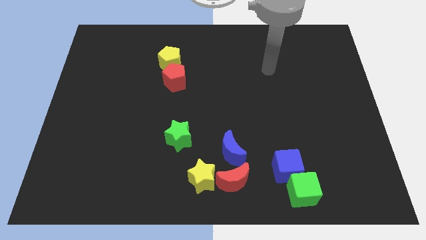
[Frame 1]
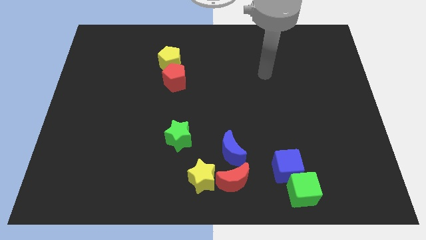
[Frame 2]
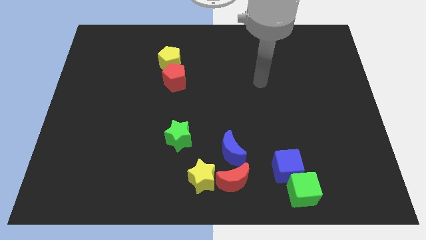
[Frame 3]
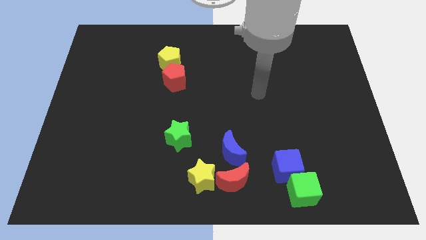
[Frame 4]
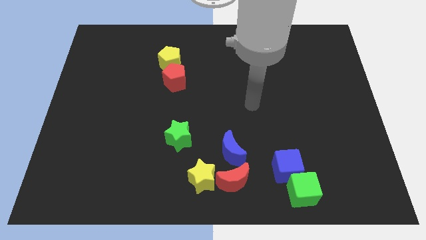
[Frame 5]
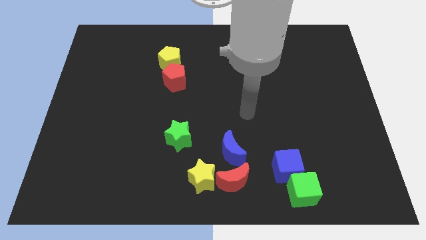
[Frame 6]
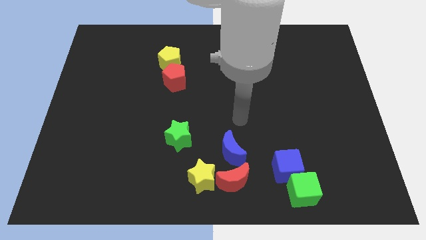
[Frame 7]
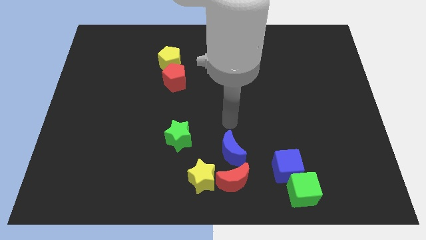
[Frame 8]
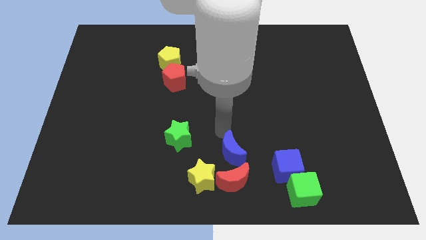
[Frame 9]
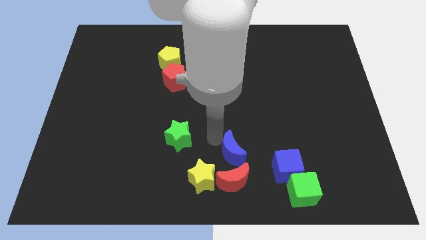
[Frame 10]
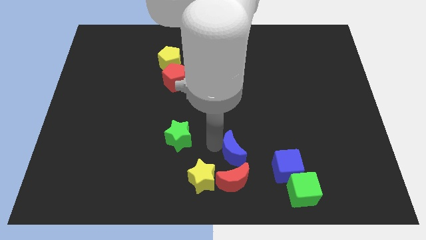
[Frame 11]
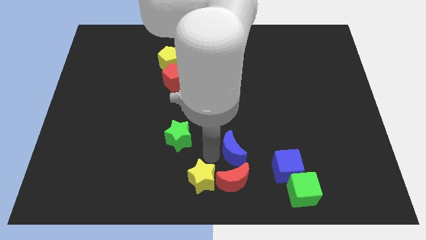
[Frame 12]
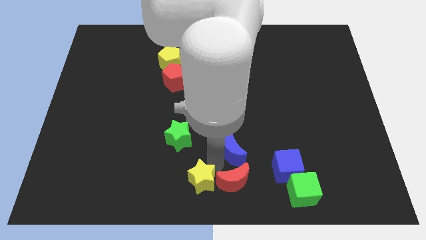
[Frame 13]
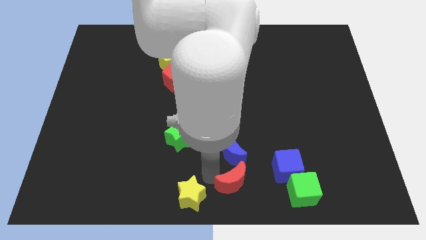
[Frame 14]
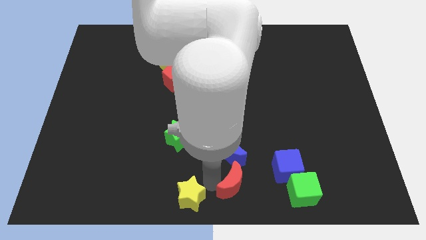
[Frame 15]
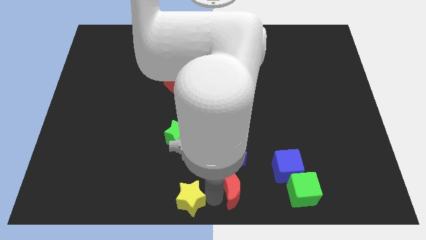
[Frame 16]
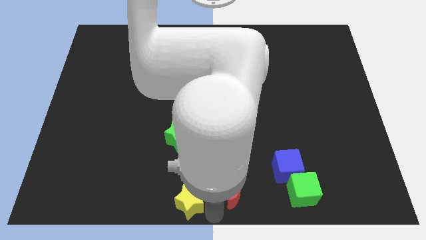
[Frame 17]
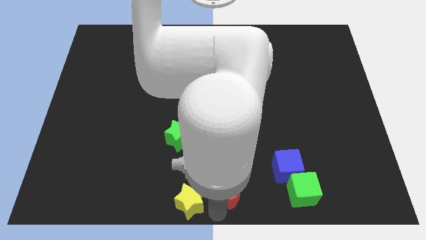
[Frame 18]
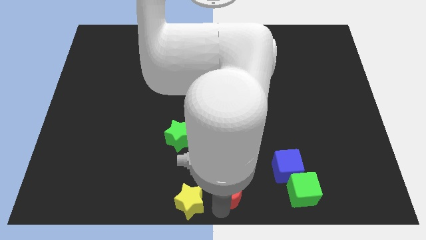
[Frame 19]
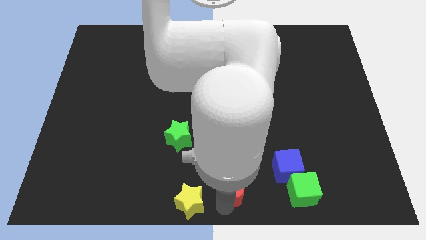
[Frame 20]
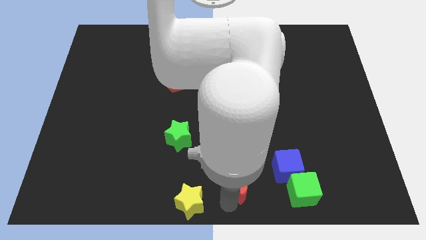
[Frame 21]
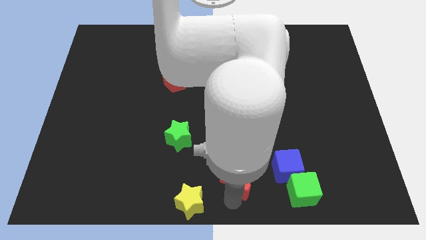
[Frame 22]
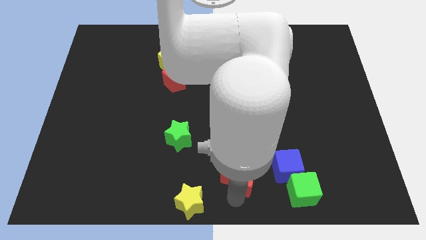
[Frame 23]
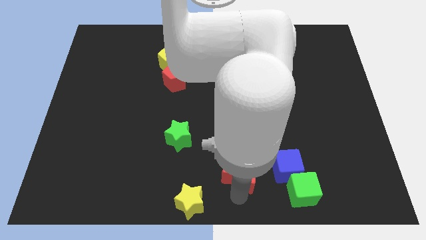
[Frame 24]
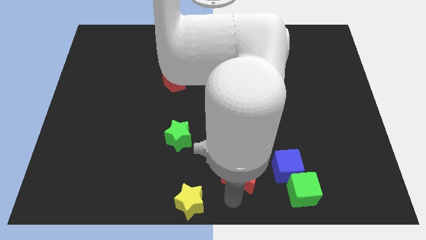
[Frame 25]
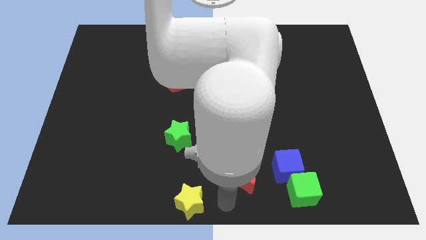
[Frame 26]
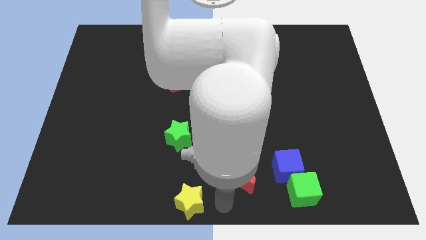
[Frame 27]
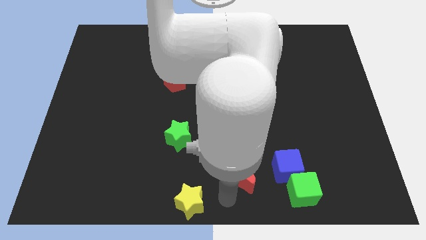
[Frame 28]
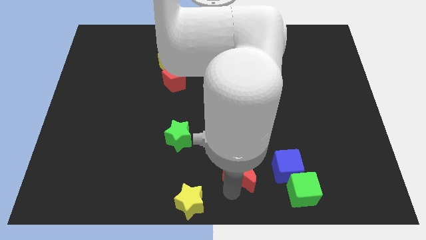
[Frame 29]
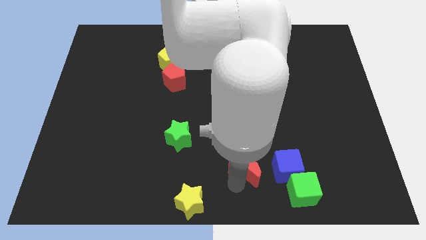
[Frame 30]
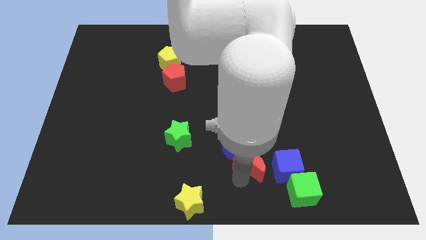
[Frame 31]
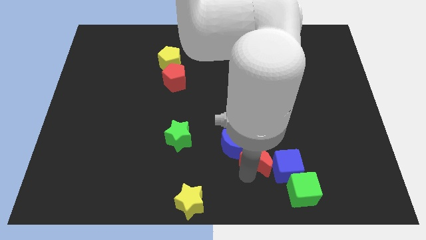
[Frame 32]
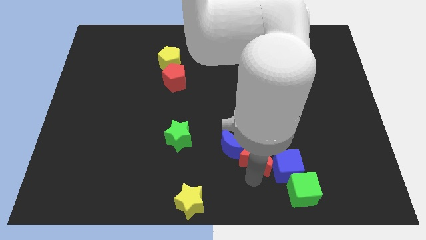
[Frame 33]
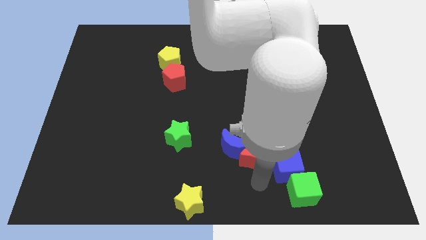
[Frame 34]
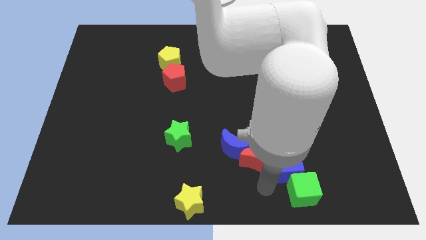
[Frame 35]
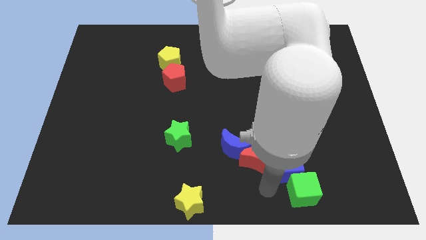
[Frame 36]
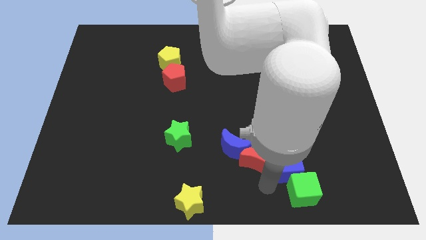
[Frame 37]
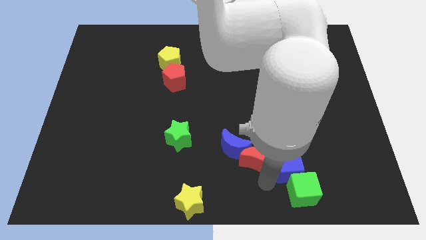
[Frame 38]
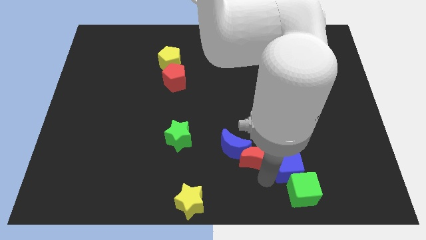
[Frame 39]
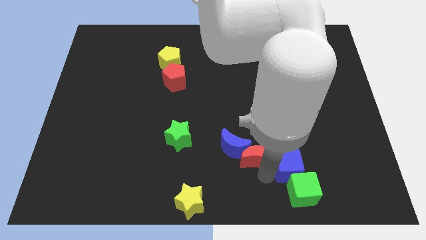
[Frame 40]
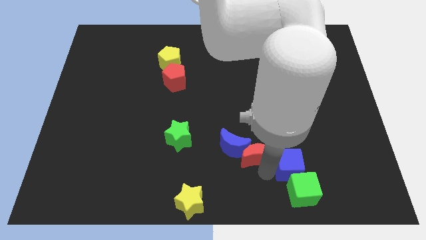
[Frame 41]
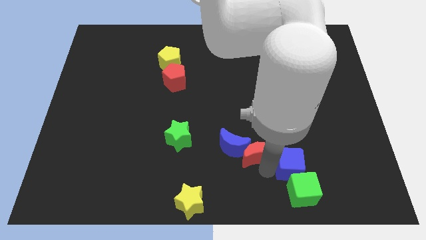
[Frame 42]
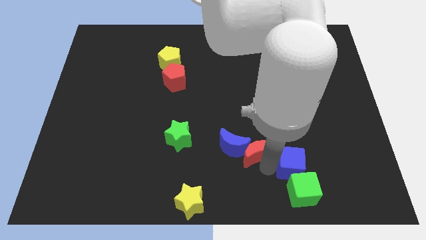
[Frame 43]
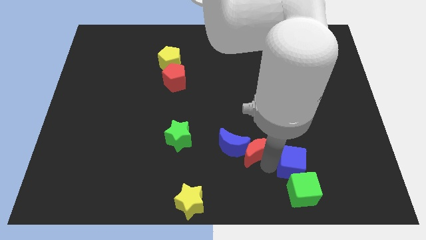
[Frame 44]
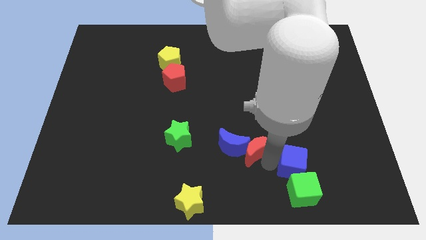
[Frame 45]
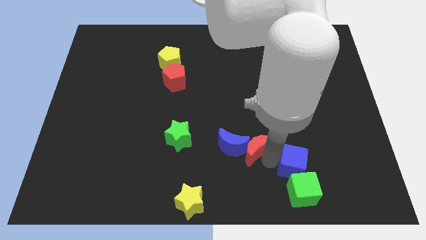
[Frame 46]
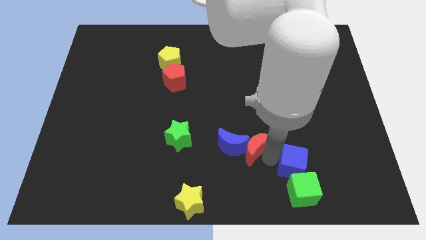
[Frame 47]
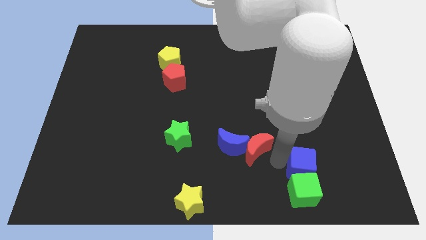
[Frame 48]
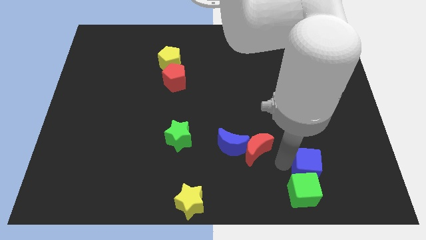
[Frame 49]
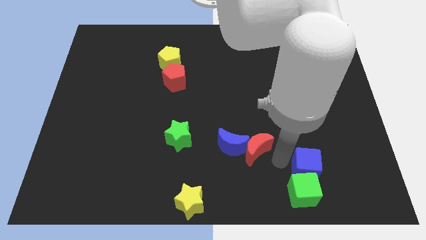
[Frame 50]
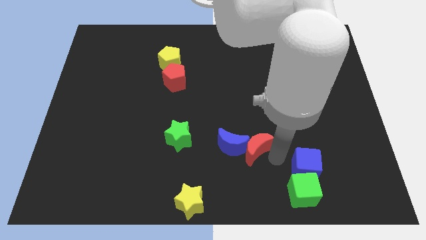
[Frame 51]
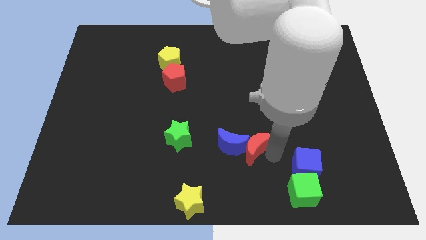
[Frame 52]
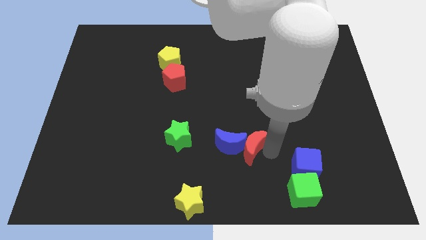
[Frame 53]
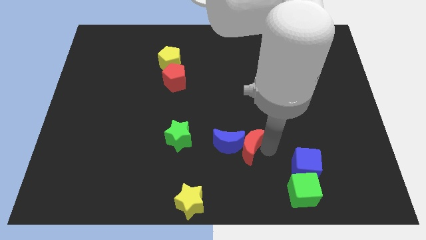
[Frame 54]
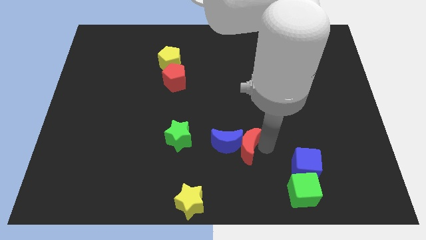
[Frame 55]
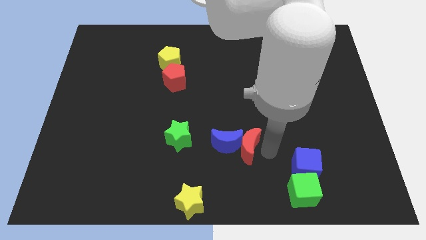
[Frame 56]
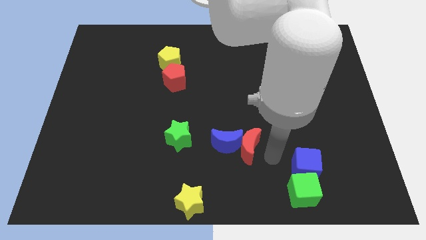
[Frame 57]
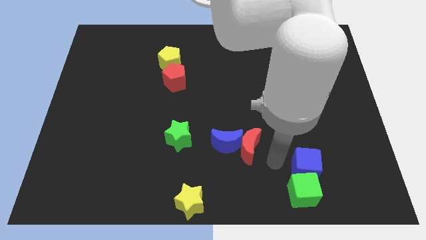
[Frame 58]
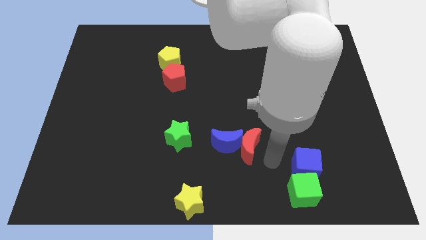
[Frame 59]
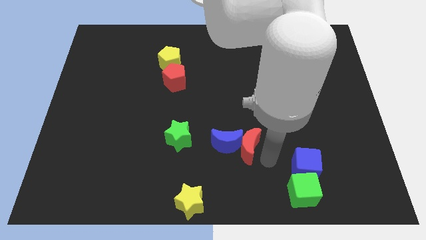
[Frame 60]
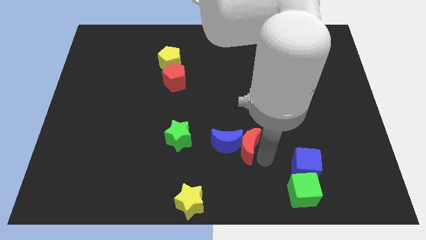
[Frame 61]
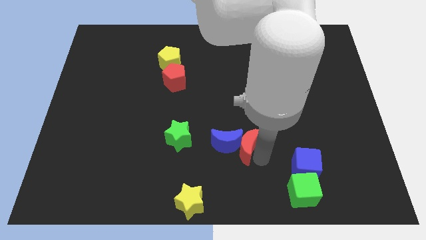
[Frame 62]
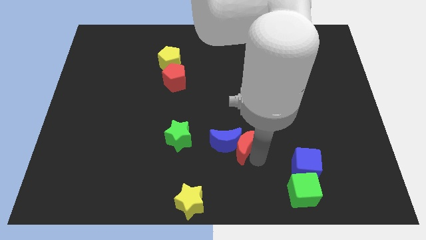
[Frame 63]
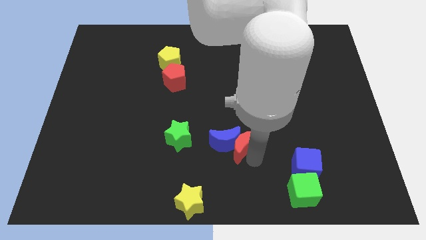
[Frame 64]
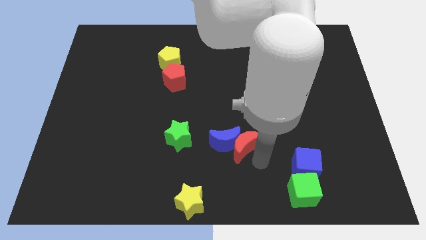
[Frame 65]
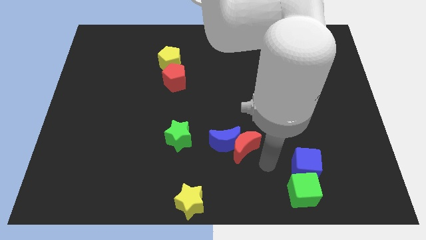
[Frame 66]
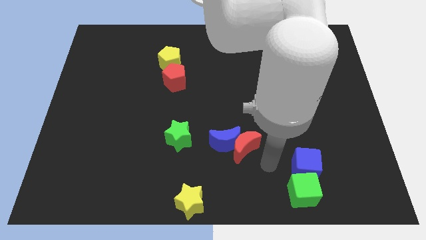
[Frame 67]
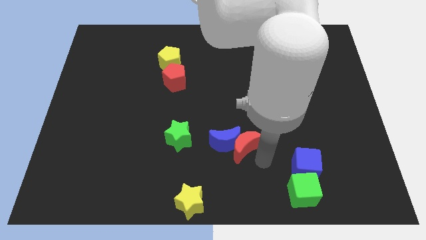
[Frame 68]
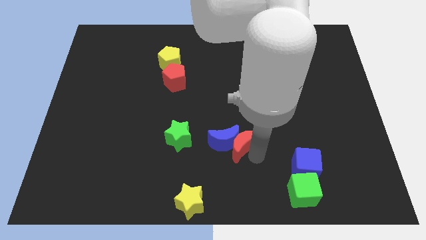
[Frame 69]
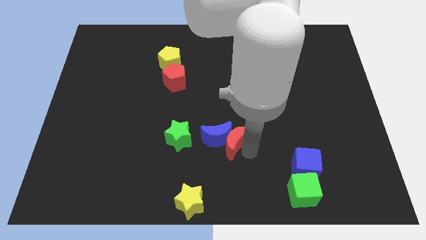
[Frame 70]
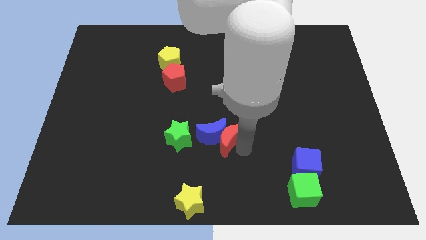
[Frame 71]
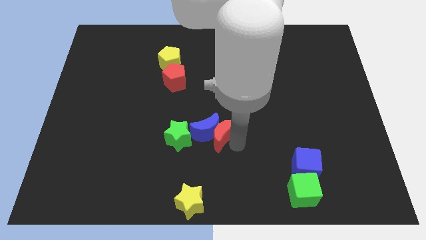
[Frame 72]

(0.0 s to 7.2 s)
slide the red moon upwards and then to the left somewhat

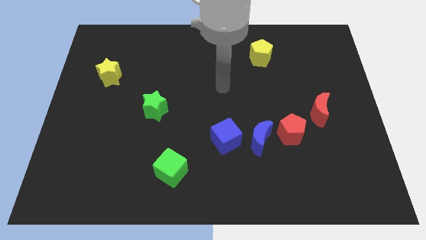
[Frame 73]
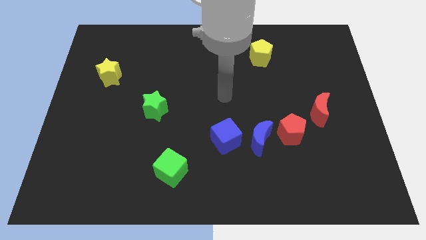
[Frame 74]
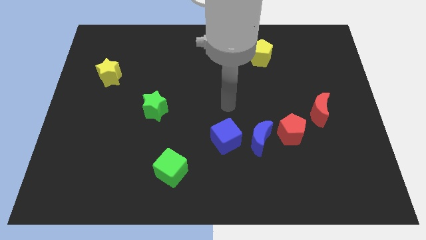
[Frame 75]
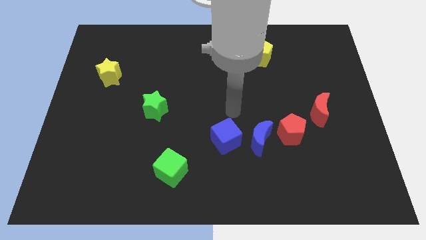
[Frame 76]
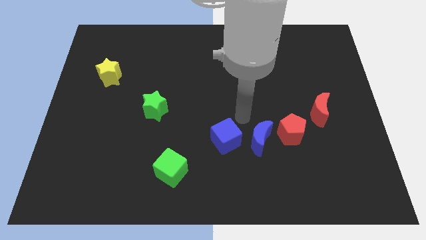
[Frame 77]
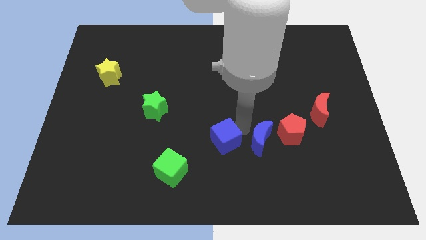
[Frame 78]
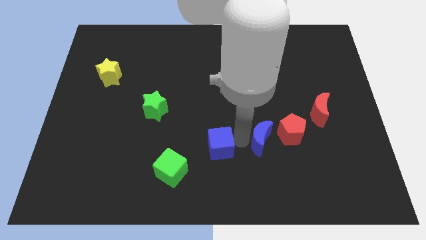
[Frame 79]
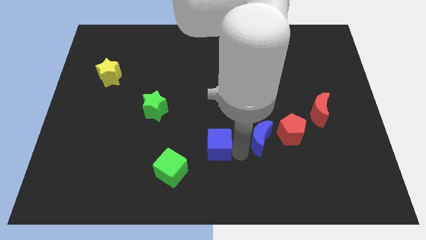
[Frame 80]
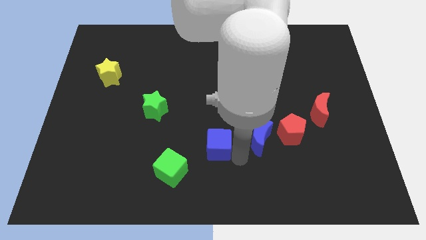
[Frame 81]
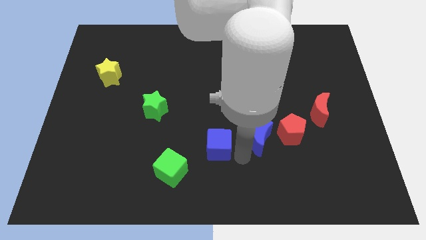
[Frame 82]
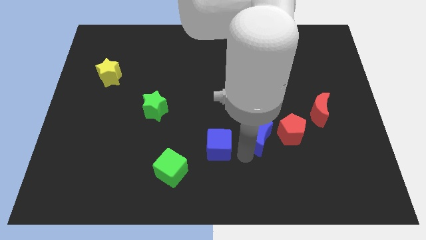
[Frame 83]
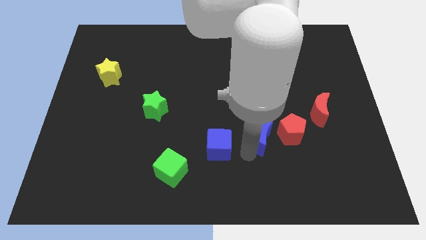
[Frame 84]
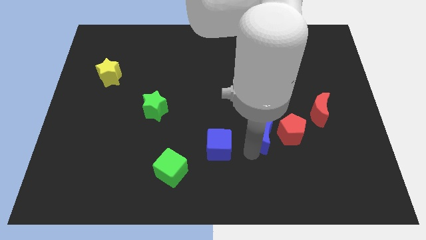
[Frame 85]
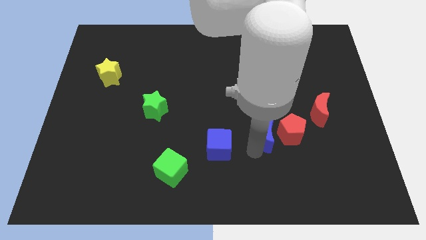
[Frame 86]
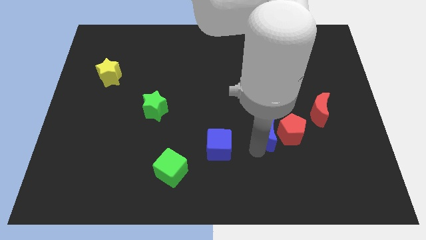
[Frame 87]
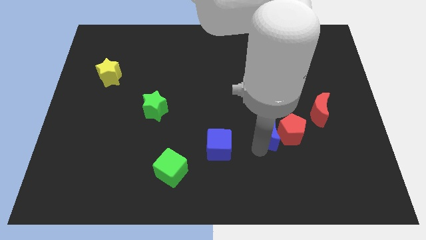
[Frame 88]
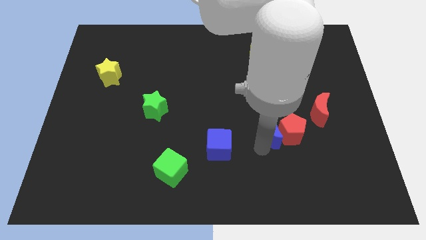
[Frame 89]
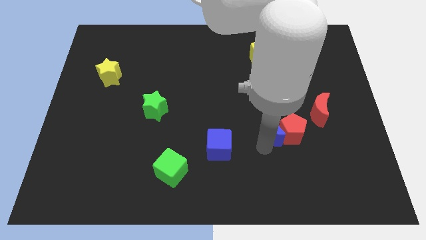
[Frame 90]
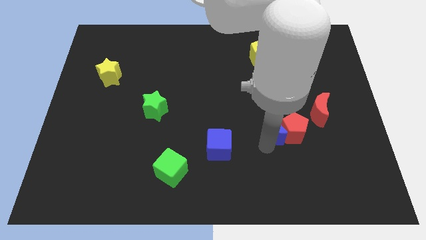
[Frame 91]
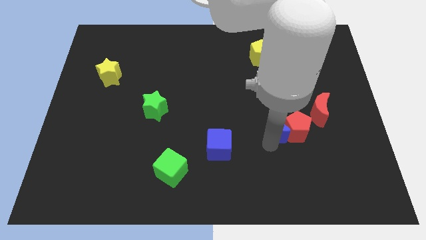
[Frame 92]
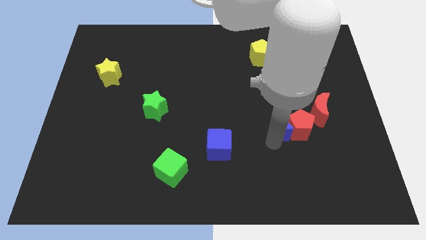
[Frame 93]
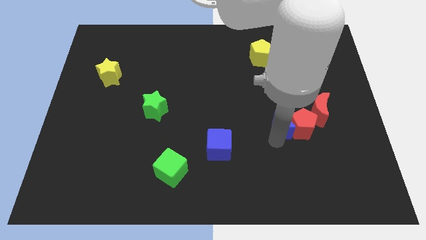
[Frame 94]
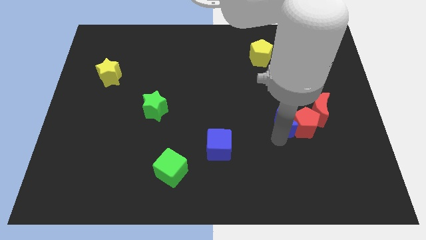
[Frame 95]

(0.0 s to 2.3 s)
push the blue moon upwards and right slightly
